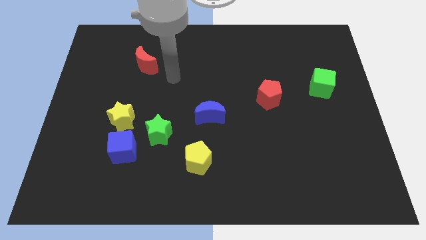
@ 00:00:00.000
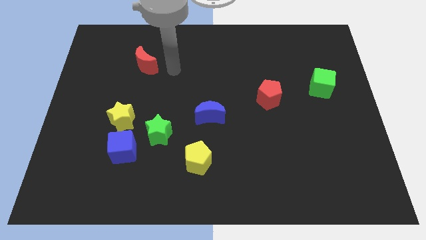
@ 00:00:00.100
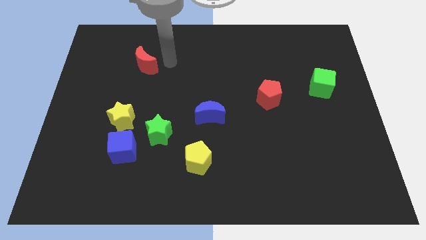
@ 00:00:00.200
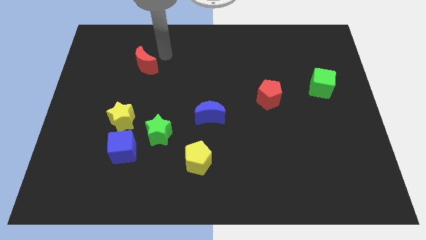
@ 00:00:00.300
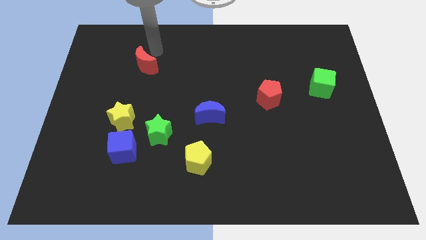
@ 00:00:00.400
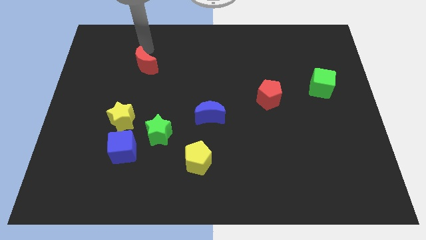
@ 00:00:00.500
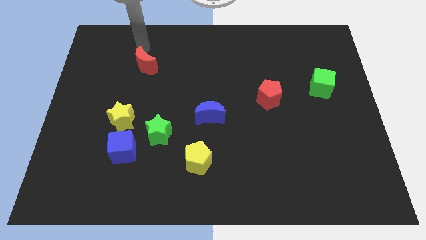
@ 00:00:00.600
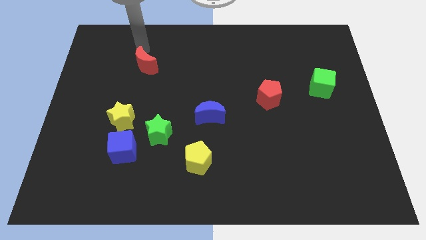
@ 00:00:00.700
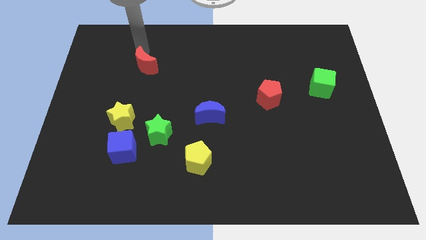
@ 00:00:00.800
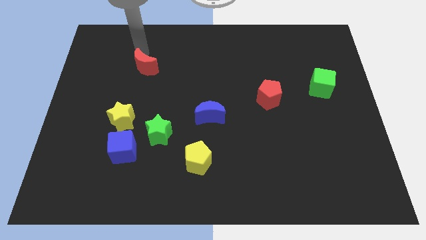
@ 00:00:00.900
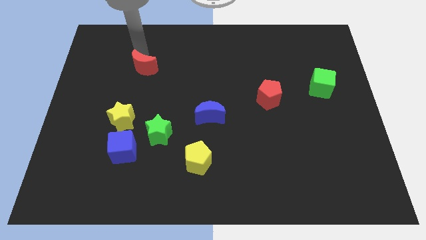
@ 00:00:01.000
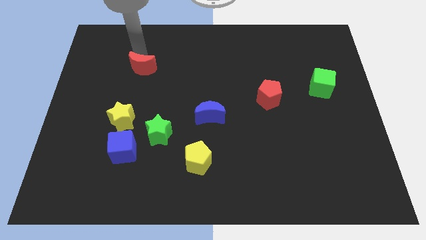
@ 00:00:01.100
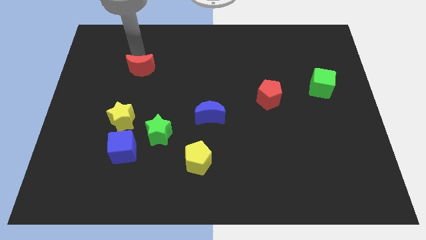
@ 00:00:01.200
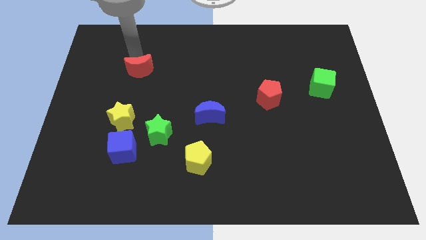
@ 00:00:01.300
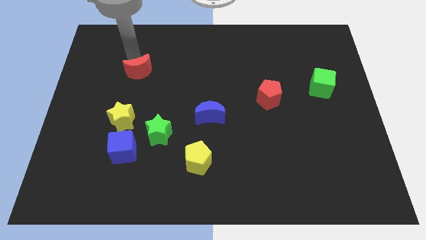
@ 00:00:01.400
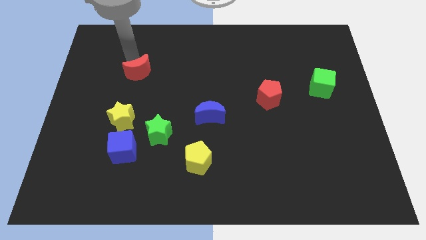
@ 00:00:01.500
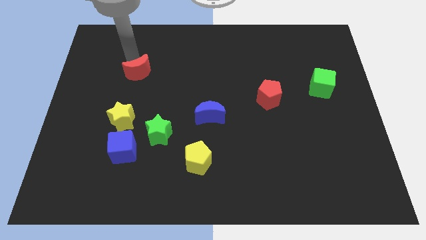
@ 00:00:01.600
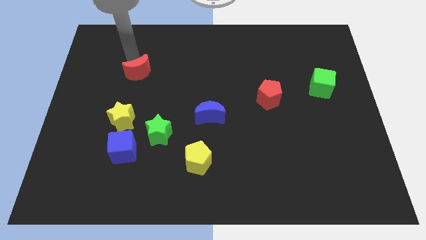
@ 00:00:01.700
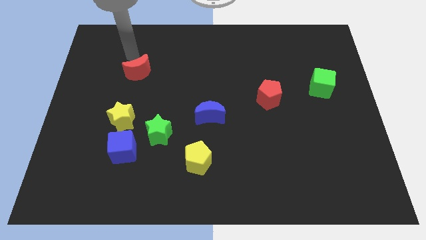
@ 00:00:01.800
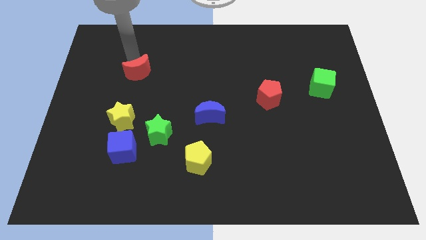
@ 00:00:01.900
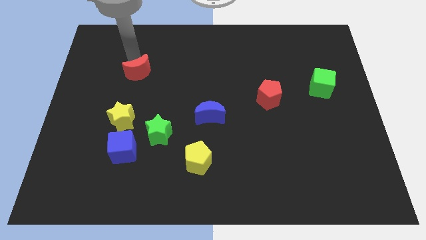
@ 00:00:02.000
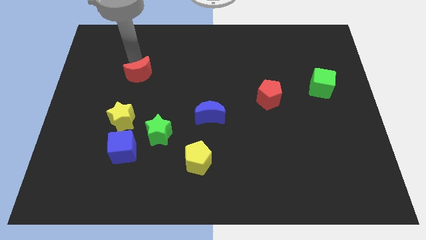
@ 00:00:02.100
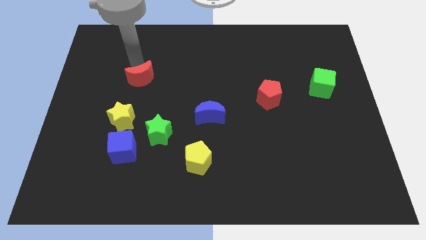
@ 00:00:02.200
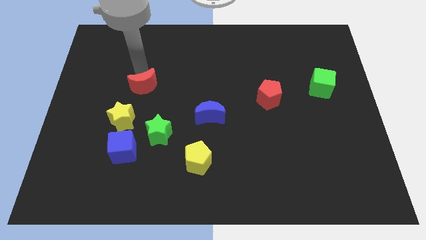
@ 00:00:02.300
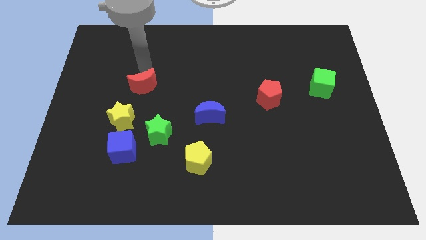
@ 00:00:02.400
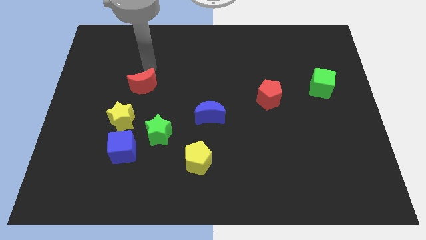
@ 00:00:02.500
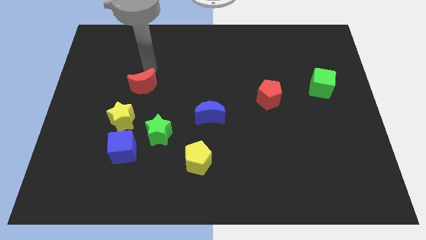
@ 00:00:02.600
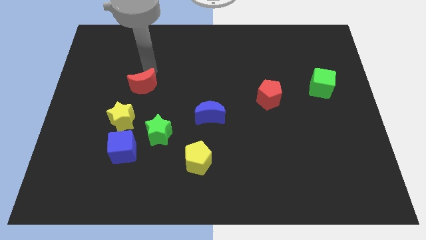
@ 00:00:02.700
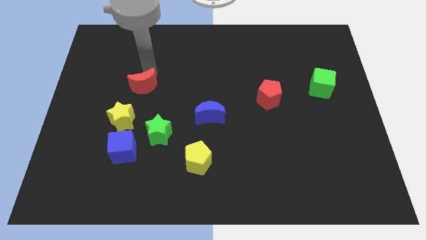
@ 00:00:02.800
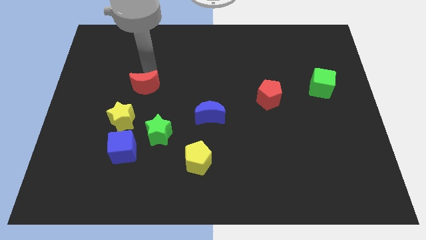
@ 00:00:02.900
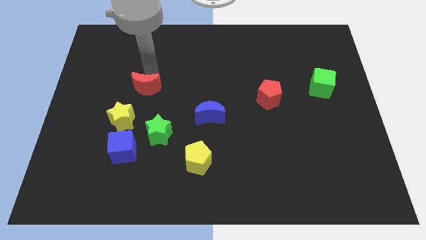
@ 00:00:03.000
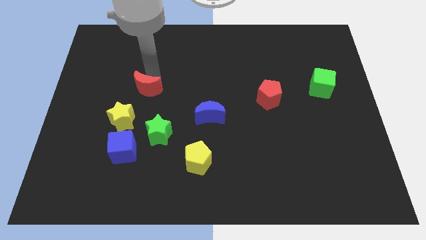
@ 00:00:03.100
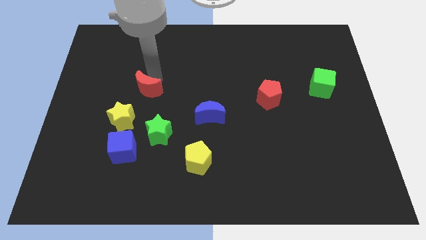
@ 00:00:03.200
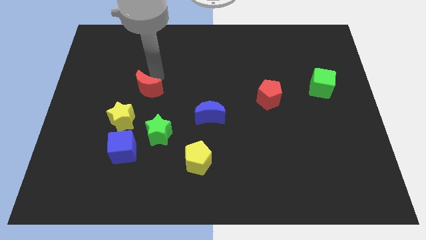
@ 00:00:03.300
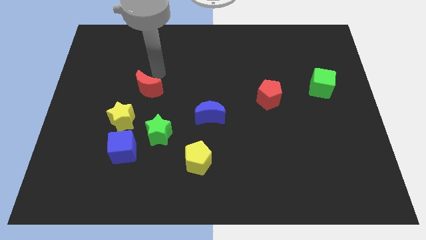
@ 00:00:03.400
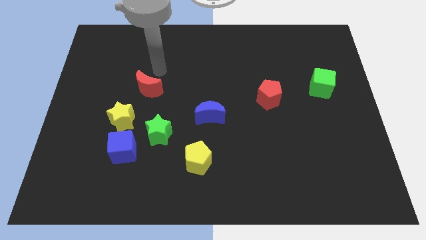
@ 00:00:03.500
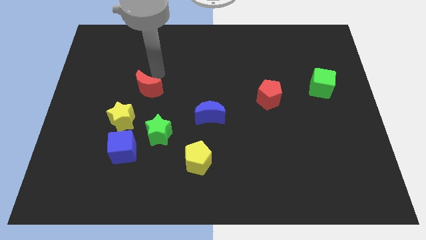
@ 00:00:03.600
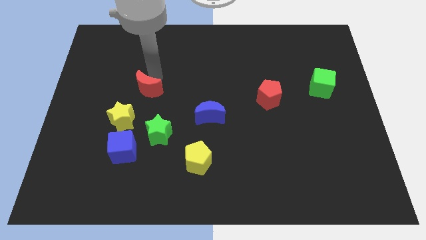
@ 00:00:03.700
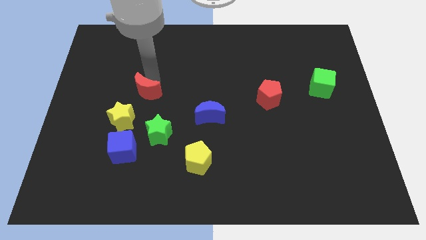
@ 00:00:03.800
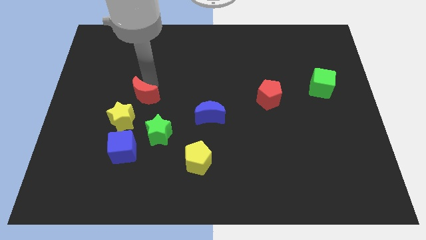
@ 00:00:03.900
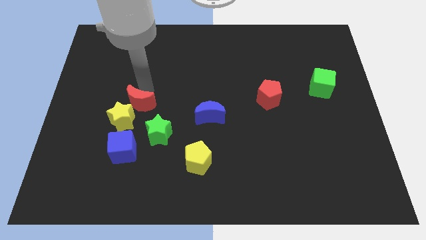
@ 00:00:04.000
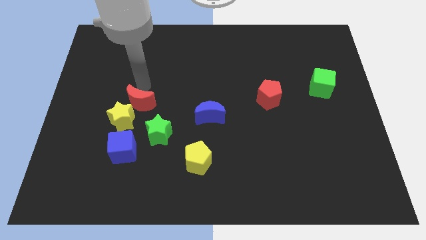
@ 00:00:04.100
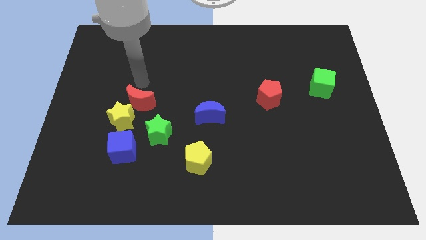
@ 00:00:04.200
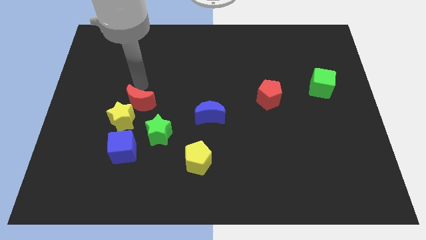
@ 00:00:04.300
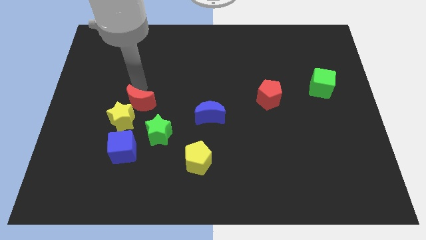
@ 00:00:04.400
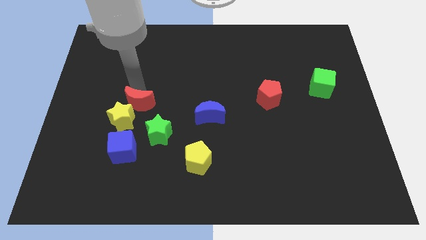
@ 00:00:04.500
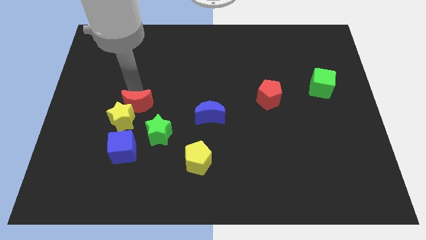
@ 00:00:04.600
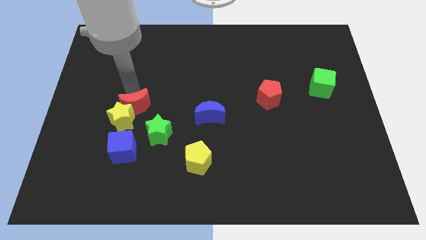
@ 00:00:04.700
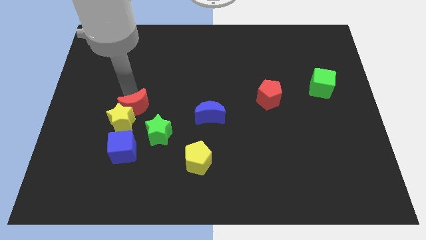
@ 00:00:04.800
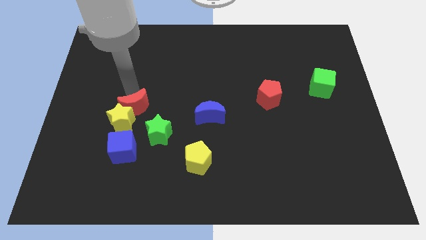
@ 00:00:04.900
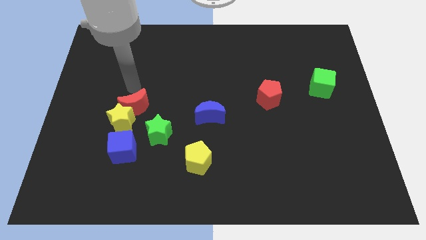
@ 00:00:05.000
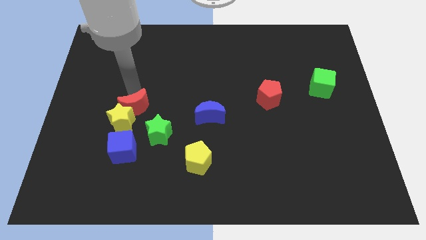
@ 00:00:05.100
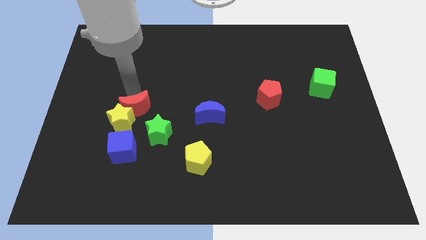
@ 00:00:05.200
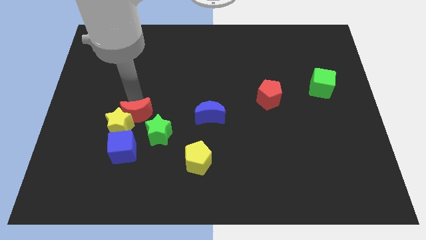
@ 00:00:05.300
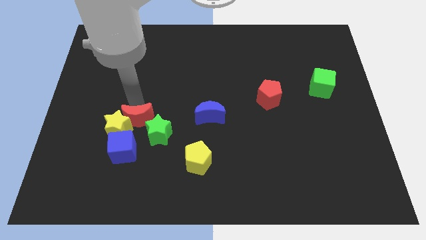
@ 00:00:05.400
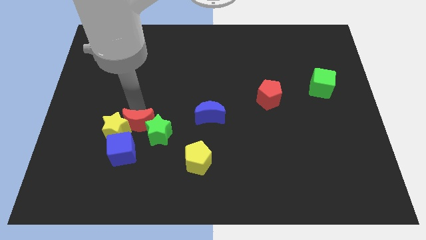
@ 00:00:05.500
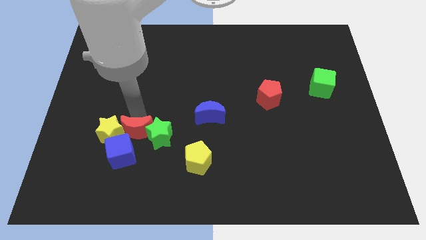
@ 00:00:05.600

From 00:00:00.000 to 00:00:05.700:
move the red moon down

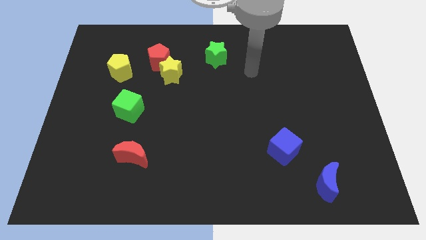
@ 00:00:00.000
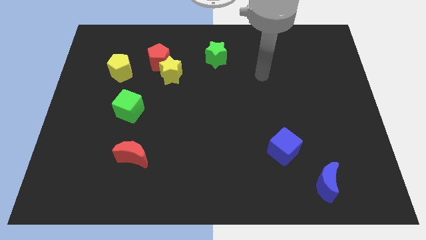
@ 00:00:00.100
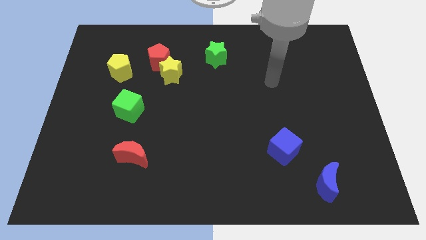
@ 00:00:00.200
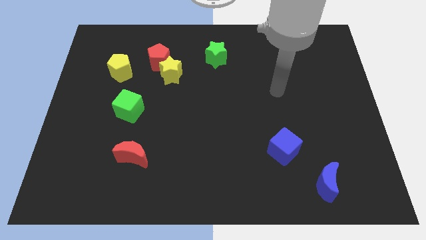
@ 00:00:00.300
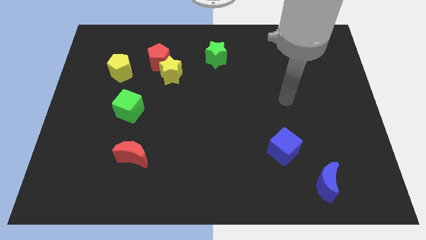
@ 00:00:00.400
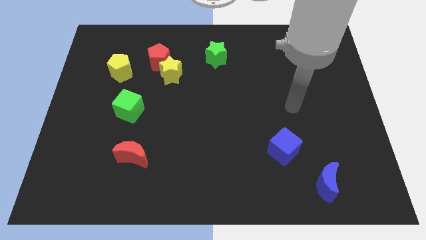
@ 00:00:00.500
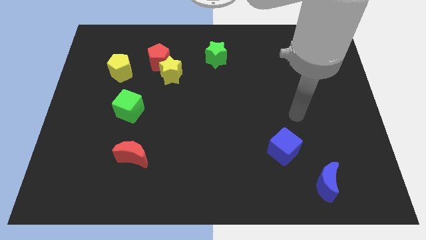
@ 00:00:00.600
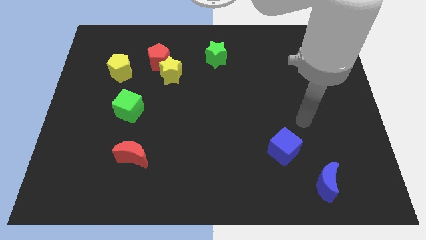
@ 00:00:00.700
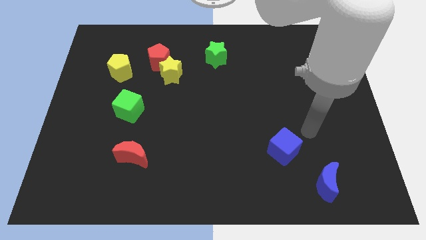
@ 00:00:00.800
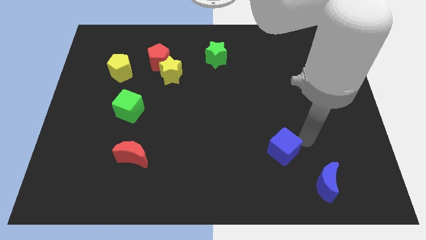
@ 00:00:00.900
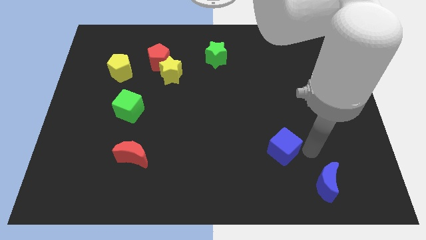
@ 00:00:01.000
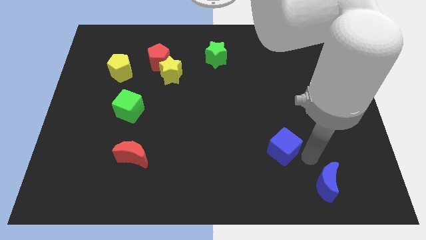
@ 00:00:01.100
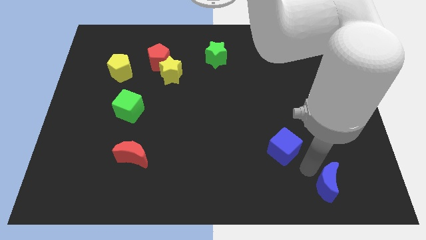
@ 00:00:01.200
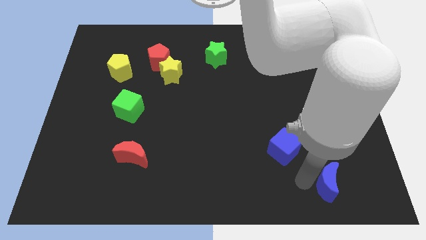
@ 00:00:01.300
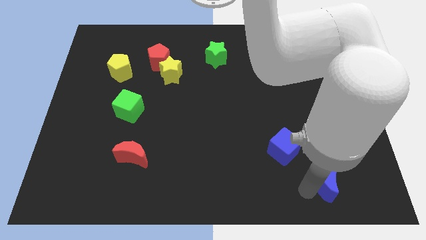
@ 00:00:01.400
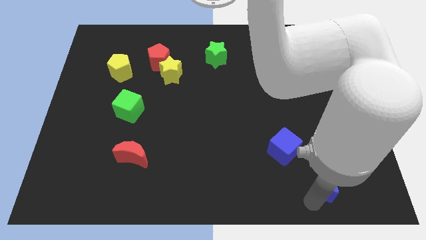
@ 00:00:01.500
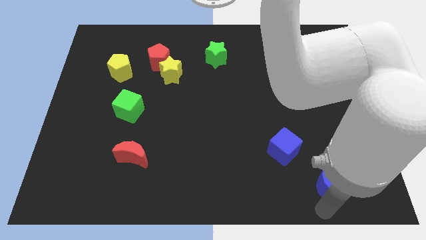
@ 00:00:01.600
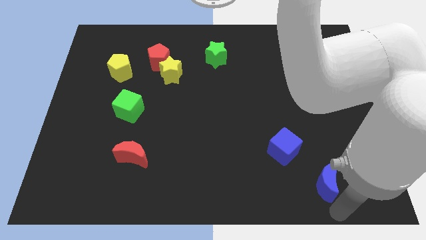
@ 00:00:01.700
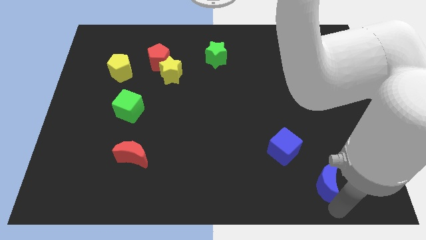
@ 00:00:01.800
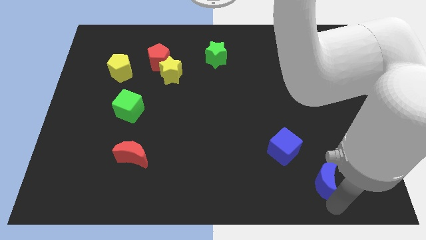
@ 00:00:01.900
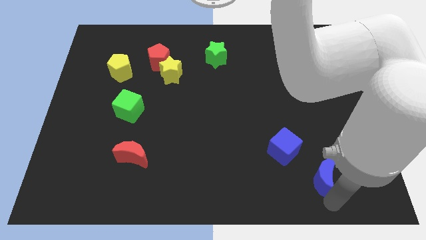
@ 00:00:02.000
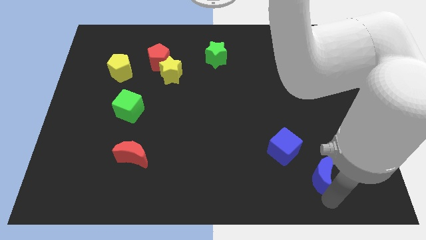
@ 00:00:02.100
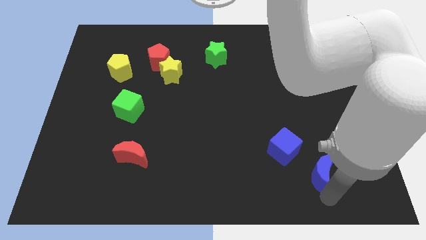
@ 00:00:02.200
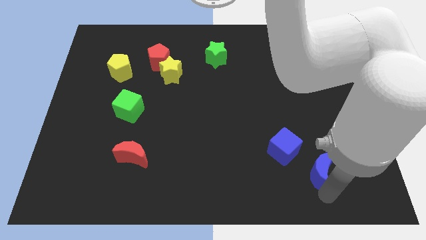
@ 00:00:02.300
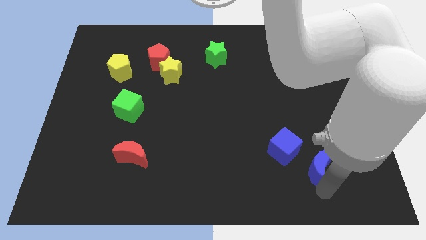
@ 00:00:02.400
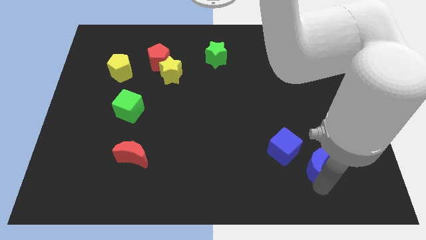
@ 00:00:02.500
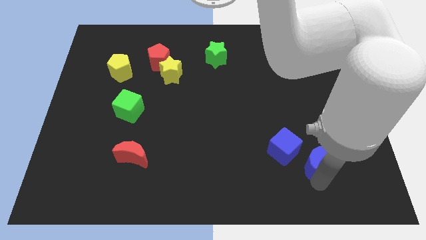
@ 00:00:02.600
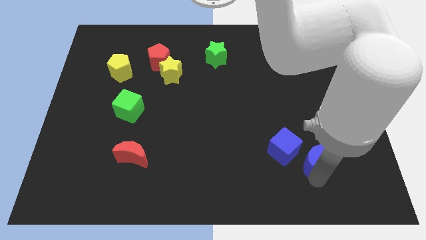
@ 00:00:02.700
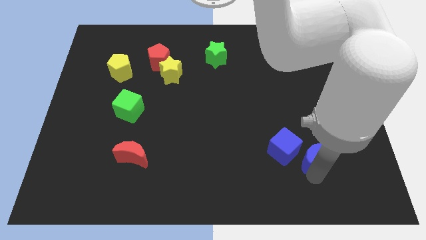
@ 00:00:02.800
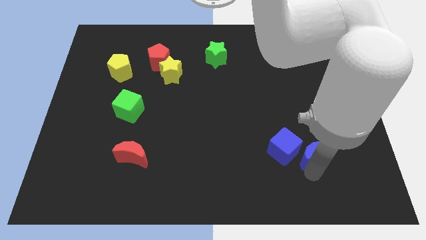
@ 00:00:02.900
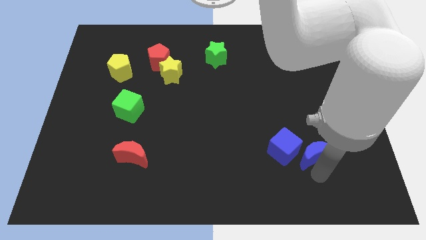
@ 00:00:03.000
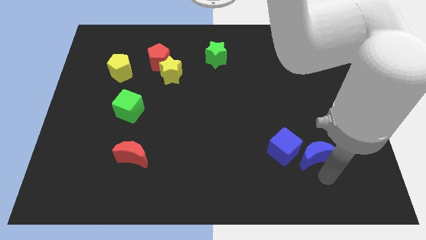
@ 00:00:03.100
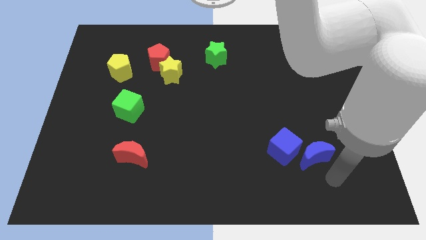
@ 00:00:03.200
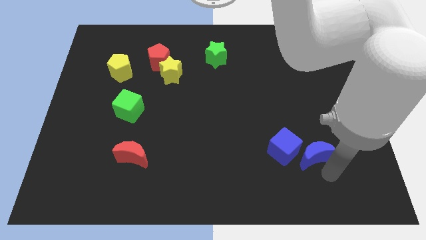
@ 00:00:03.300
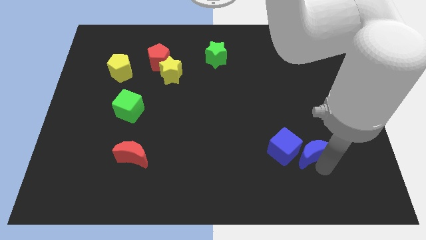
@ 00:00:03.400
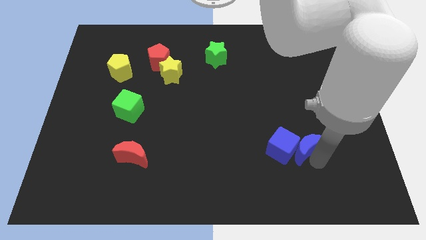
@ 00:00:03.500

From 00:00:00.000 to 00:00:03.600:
push the blue moon a little bit up and then left
